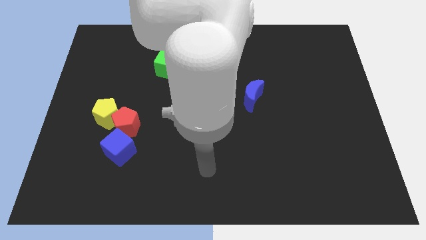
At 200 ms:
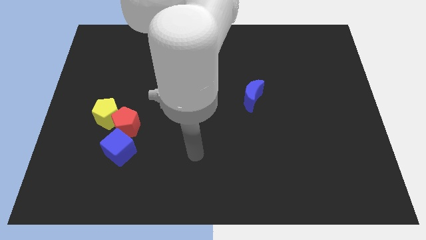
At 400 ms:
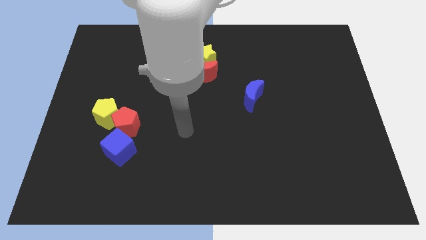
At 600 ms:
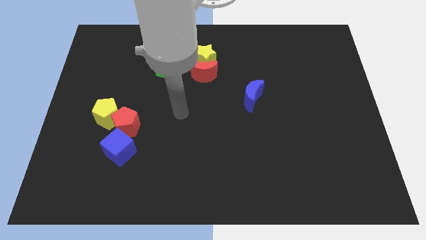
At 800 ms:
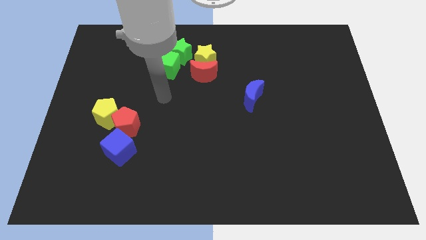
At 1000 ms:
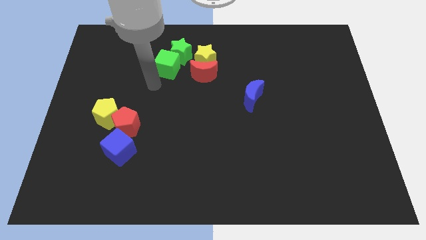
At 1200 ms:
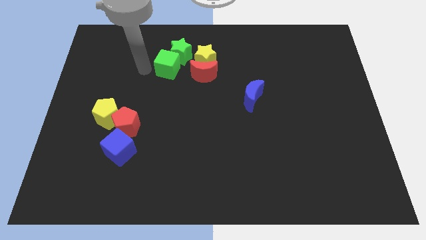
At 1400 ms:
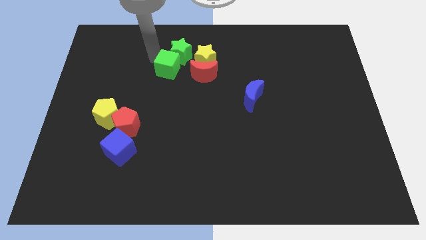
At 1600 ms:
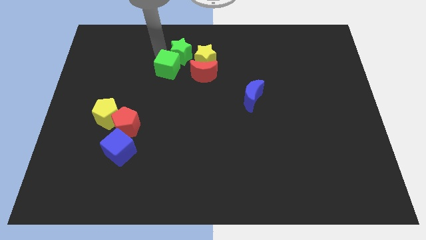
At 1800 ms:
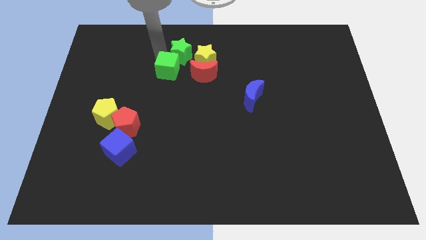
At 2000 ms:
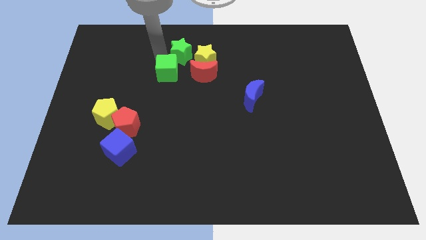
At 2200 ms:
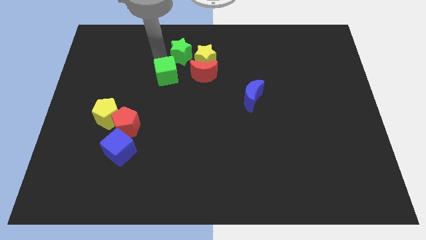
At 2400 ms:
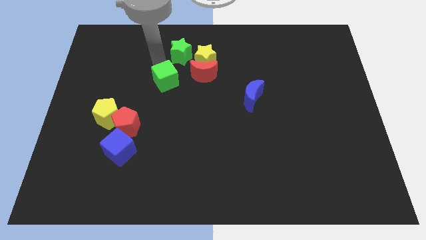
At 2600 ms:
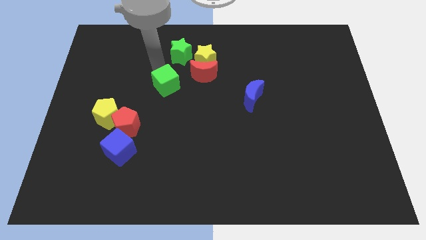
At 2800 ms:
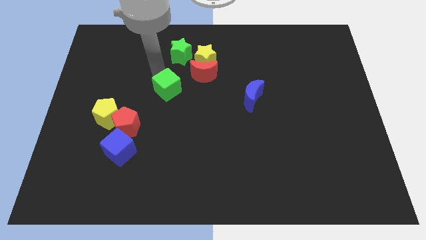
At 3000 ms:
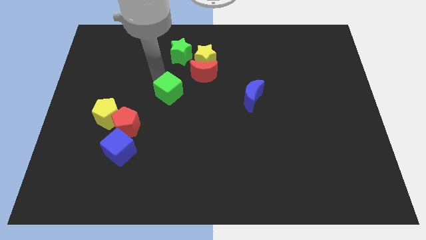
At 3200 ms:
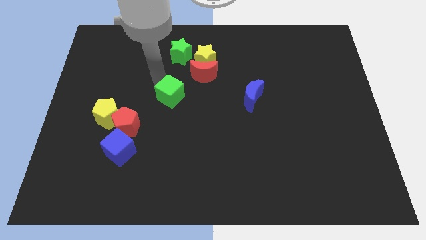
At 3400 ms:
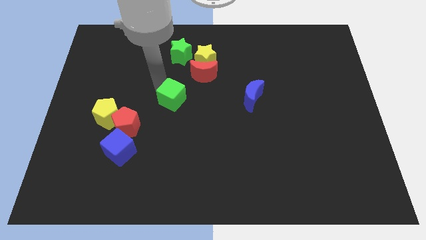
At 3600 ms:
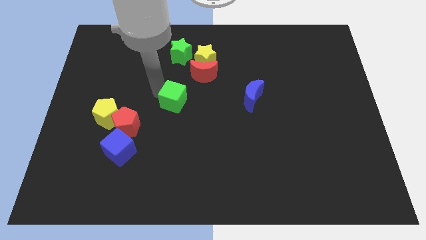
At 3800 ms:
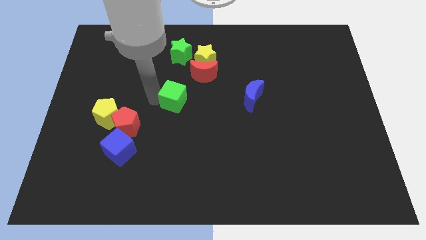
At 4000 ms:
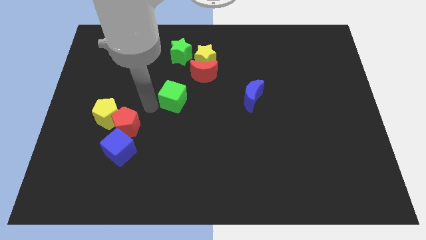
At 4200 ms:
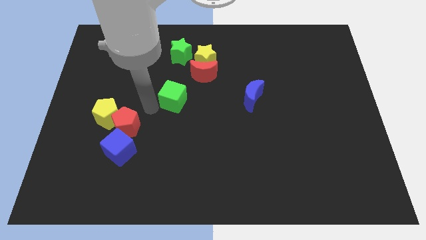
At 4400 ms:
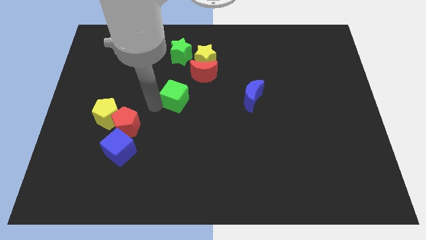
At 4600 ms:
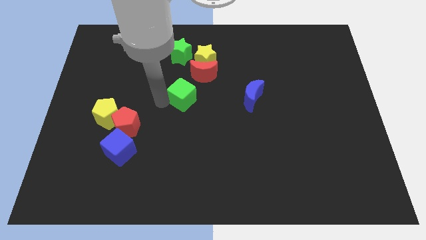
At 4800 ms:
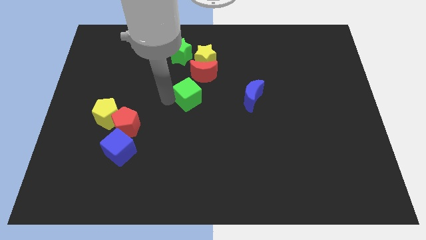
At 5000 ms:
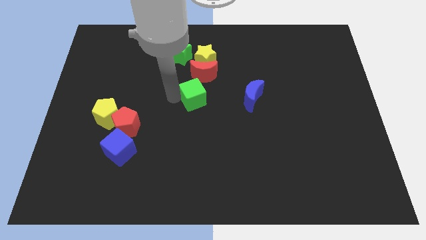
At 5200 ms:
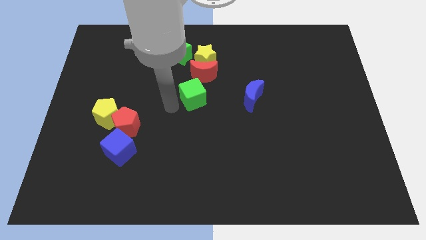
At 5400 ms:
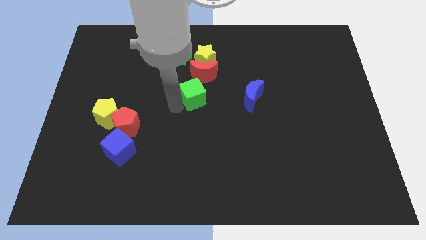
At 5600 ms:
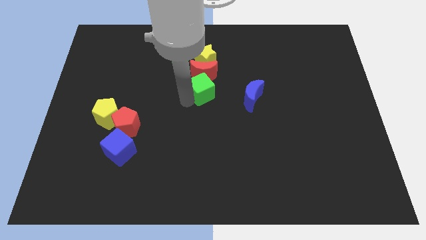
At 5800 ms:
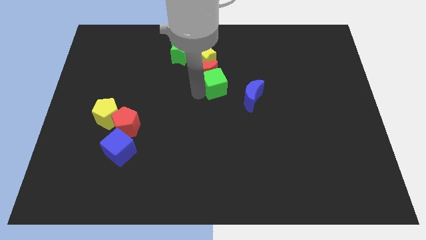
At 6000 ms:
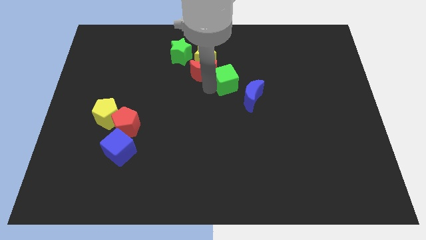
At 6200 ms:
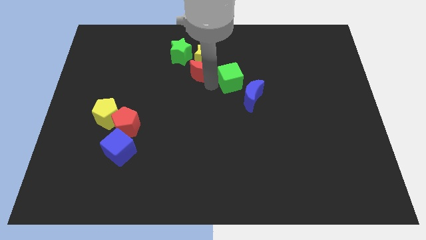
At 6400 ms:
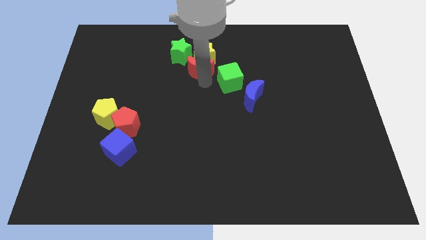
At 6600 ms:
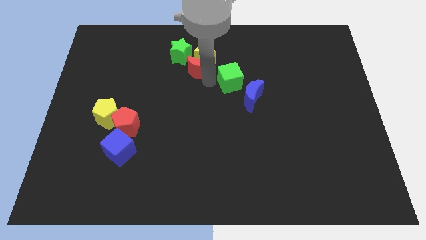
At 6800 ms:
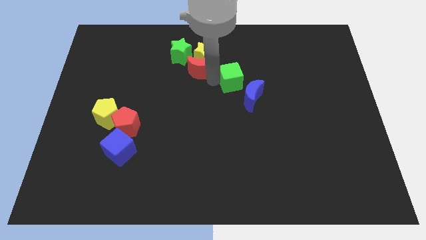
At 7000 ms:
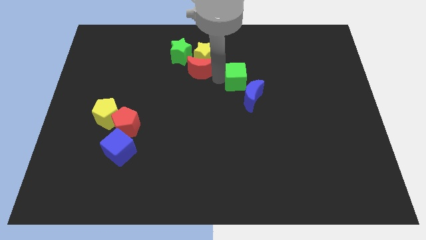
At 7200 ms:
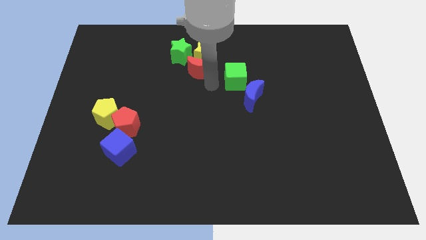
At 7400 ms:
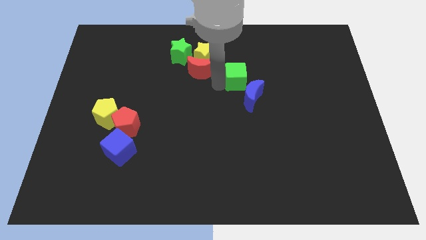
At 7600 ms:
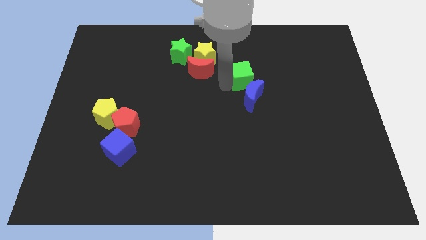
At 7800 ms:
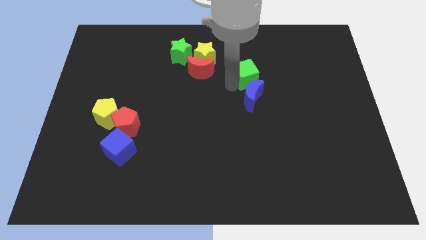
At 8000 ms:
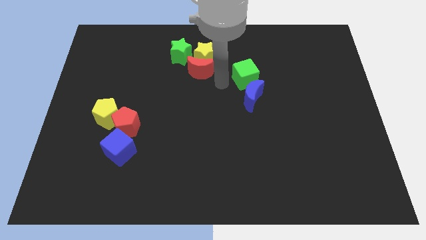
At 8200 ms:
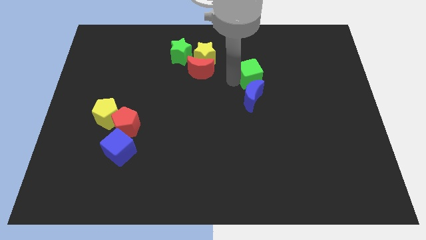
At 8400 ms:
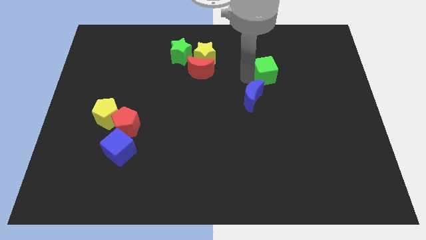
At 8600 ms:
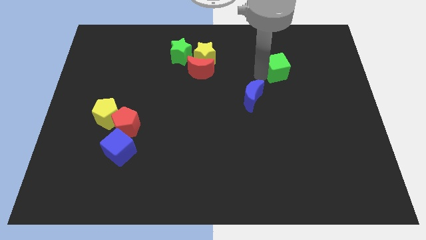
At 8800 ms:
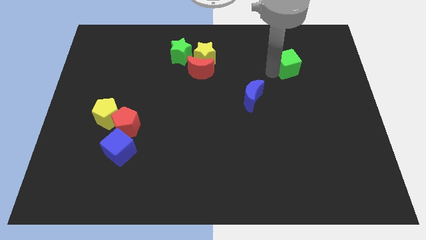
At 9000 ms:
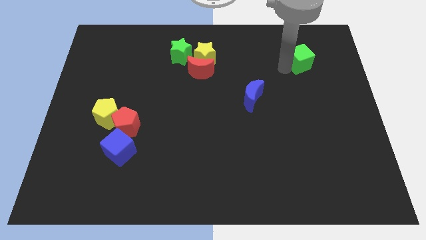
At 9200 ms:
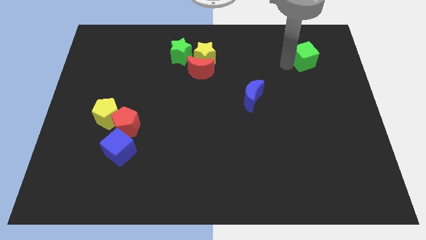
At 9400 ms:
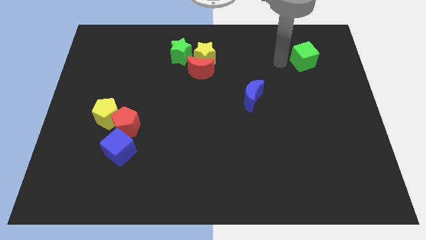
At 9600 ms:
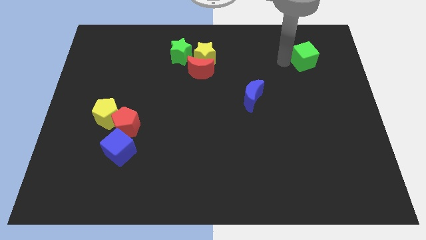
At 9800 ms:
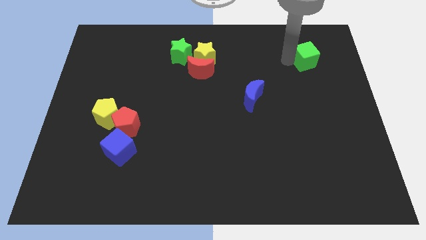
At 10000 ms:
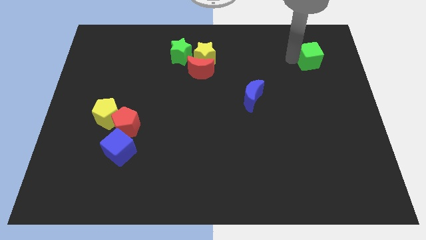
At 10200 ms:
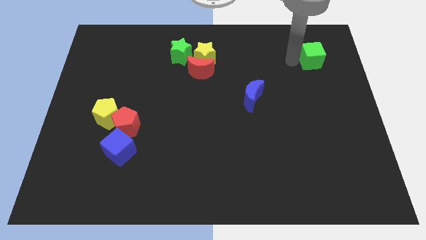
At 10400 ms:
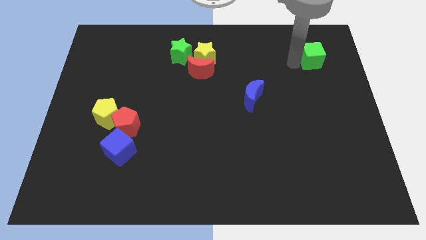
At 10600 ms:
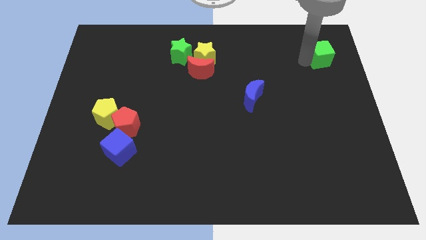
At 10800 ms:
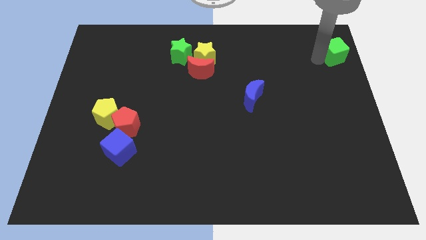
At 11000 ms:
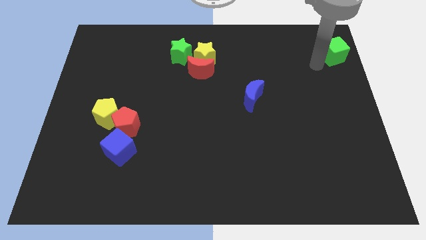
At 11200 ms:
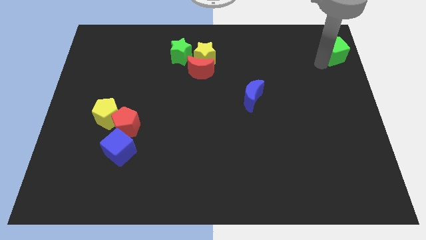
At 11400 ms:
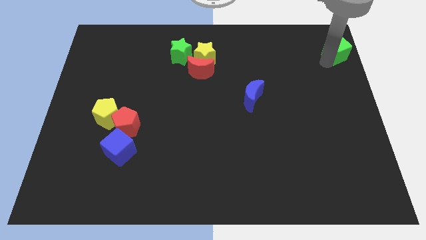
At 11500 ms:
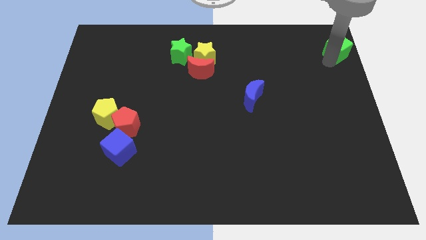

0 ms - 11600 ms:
move the green cube to the top right

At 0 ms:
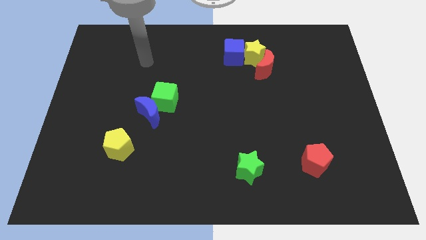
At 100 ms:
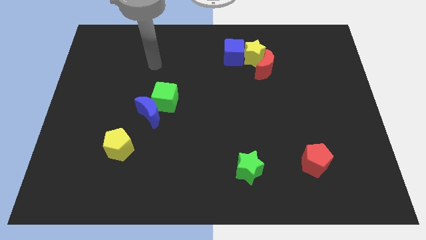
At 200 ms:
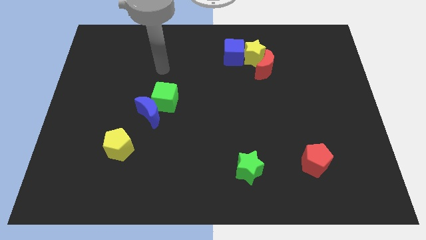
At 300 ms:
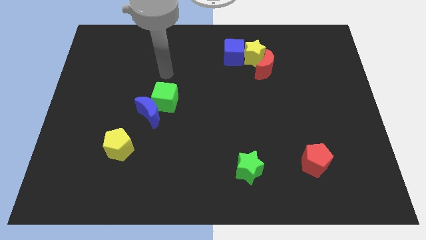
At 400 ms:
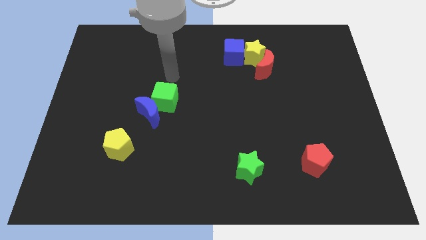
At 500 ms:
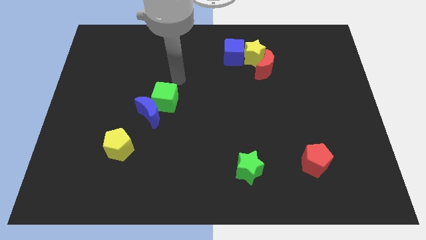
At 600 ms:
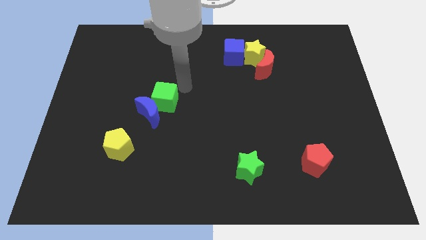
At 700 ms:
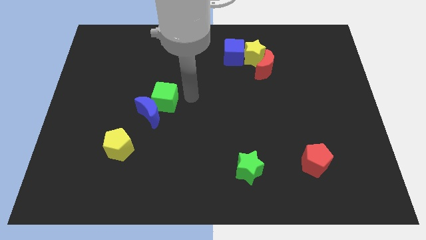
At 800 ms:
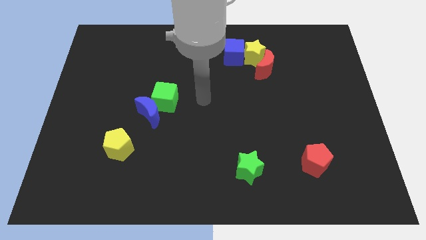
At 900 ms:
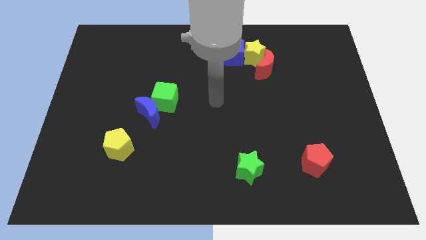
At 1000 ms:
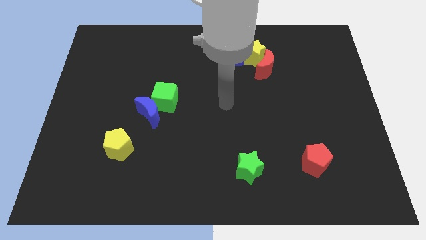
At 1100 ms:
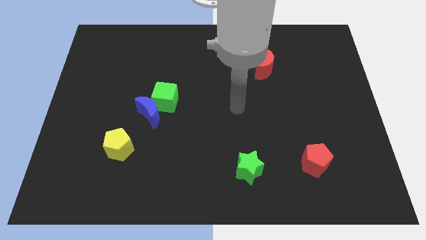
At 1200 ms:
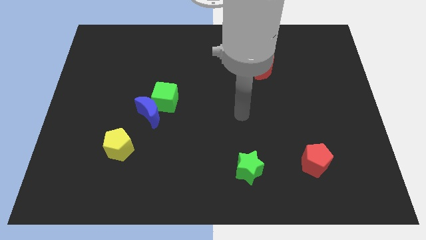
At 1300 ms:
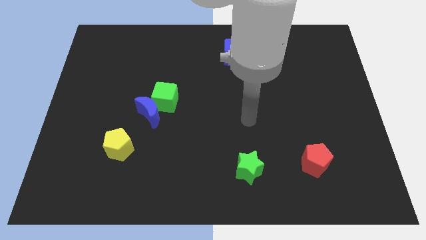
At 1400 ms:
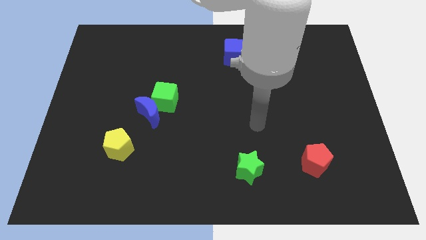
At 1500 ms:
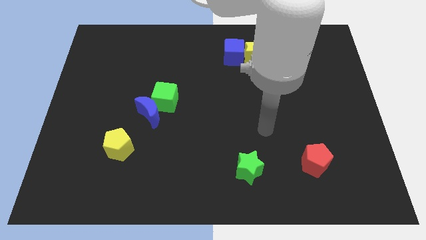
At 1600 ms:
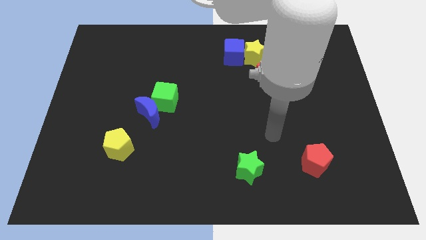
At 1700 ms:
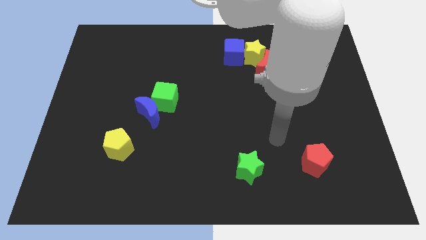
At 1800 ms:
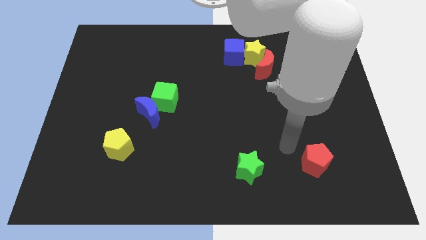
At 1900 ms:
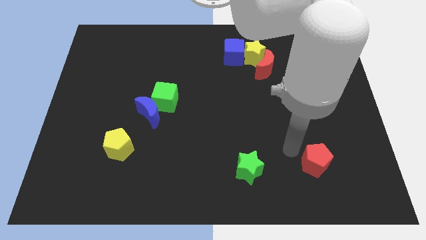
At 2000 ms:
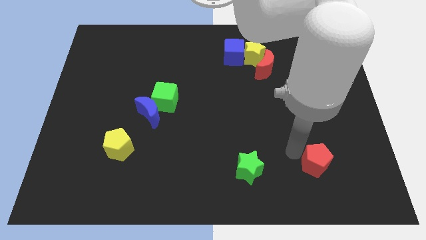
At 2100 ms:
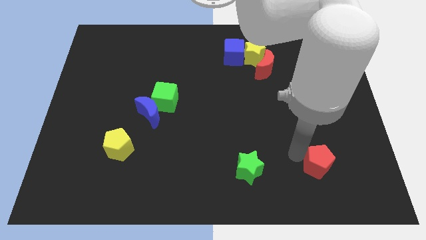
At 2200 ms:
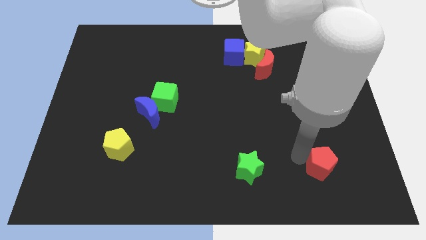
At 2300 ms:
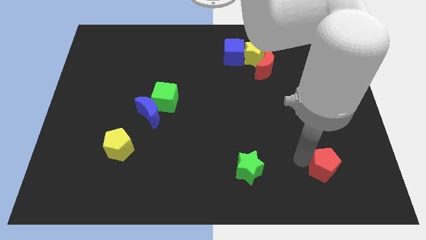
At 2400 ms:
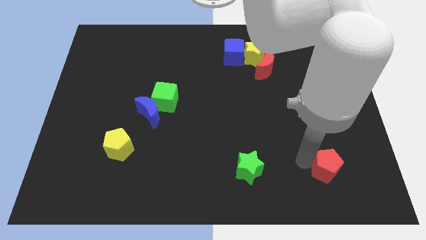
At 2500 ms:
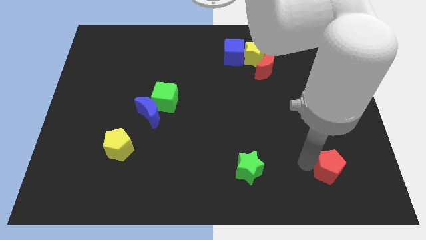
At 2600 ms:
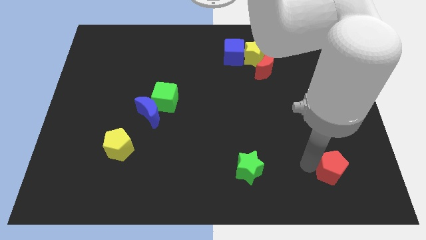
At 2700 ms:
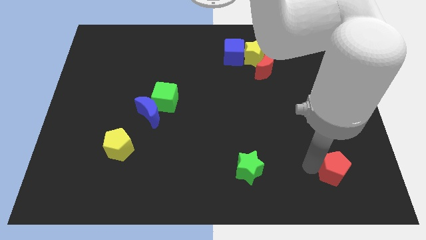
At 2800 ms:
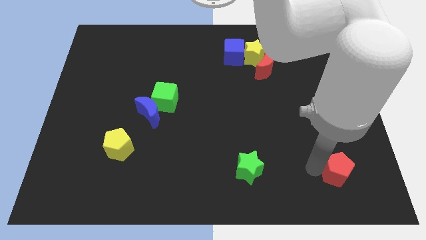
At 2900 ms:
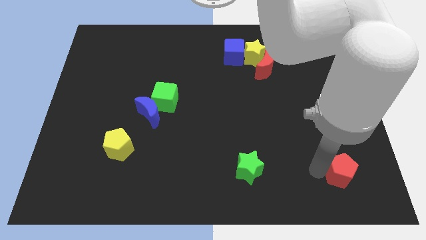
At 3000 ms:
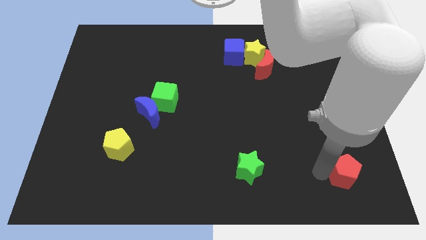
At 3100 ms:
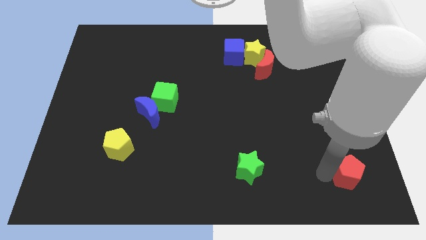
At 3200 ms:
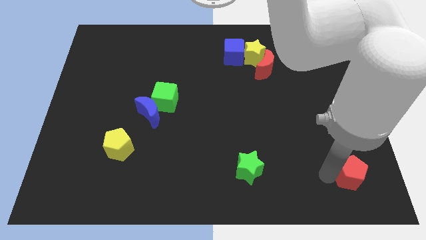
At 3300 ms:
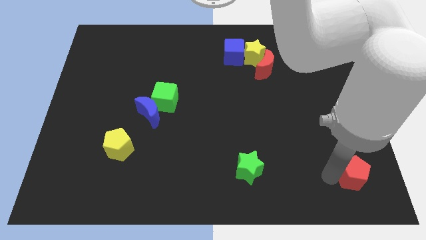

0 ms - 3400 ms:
push the red pentagon to the bottom right of the board
